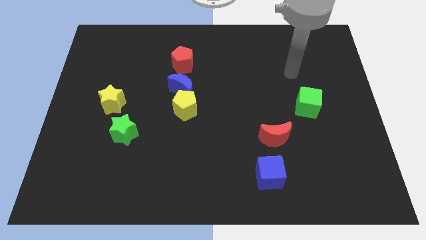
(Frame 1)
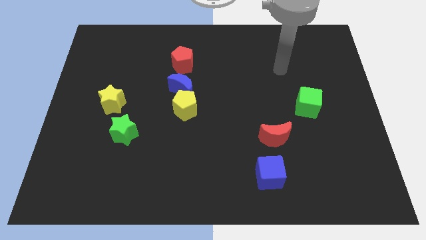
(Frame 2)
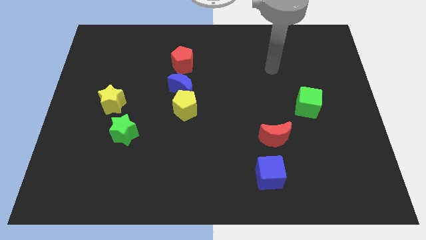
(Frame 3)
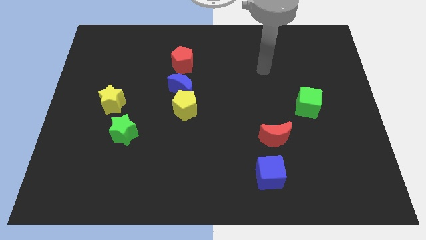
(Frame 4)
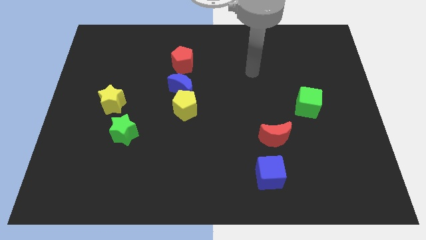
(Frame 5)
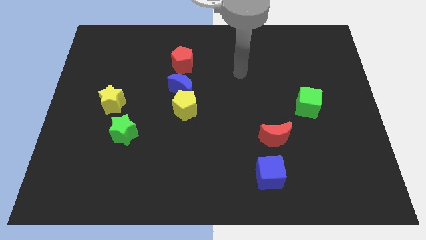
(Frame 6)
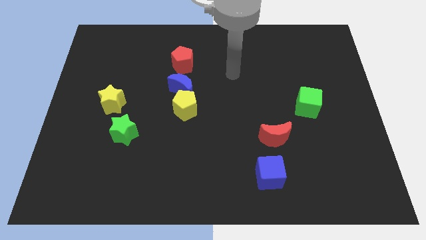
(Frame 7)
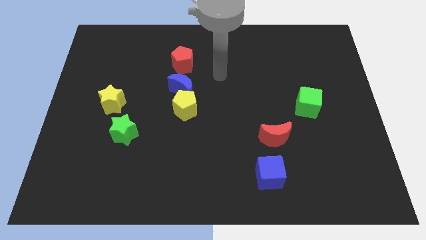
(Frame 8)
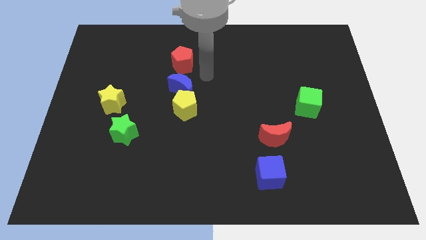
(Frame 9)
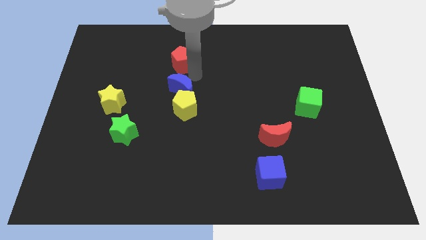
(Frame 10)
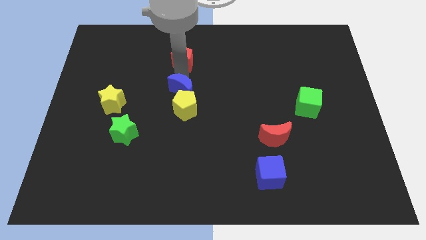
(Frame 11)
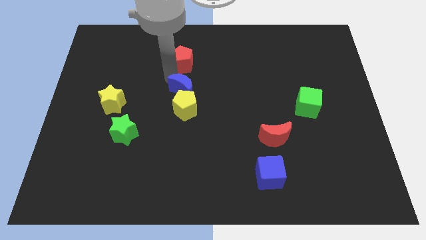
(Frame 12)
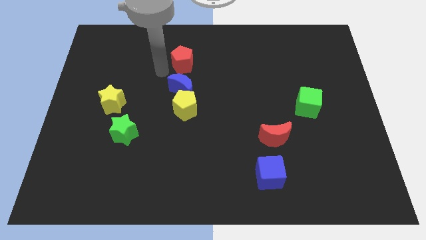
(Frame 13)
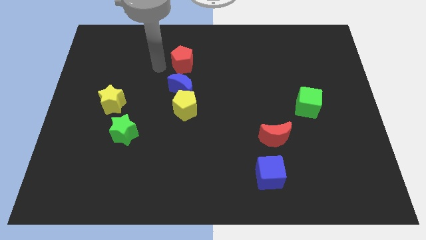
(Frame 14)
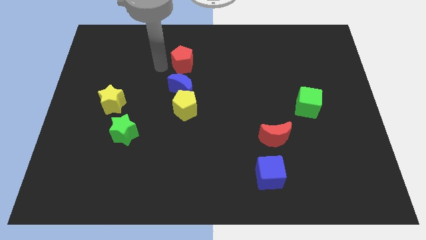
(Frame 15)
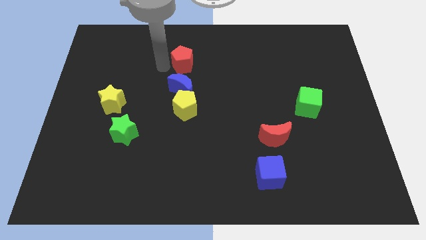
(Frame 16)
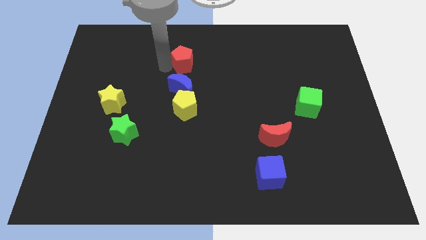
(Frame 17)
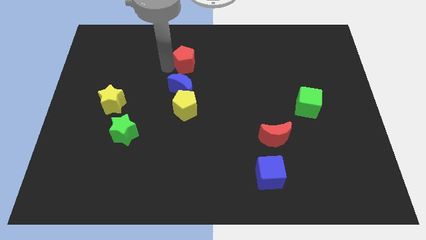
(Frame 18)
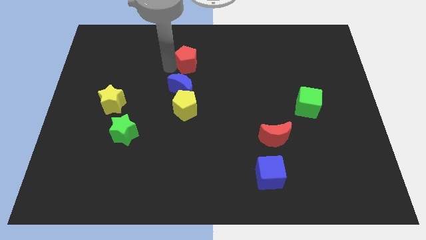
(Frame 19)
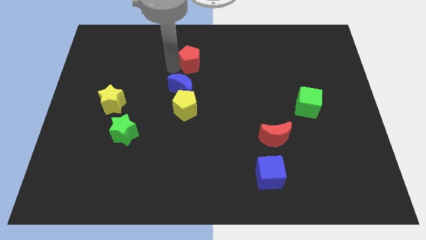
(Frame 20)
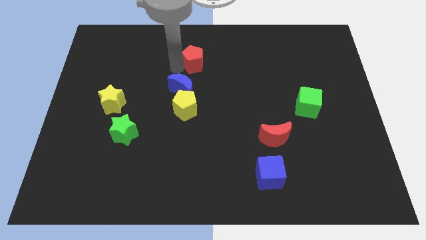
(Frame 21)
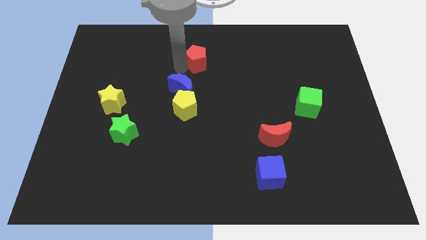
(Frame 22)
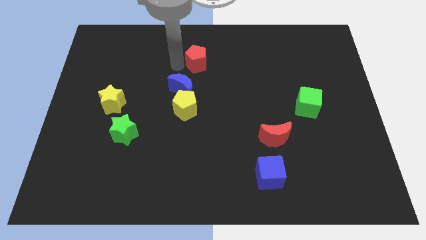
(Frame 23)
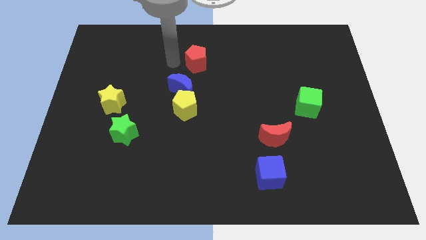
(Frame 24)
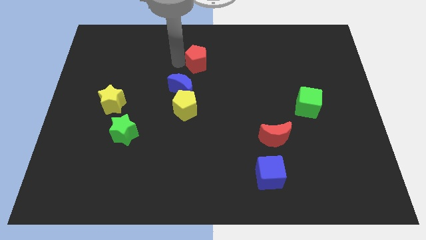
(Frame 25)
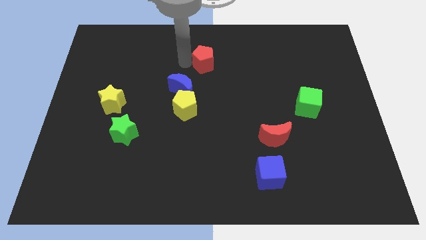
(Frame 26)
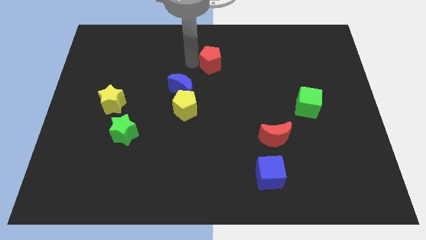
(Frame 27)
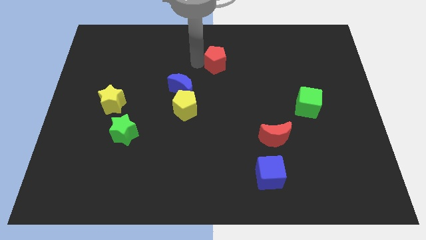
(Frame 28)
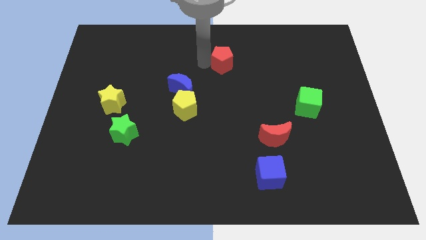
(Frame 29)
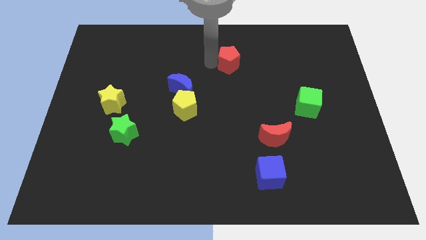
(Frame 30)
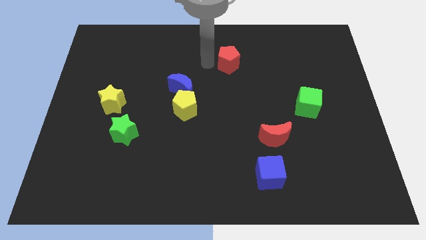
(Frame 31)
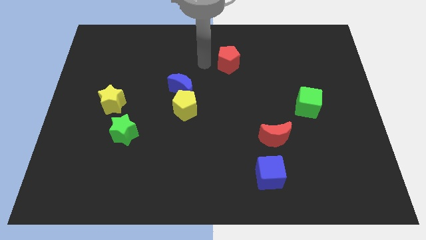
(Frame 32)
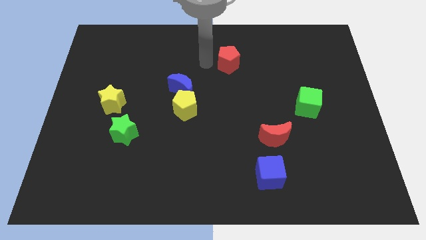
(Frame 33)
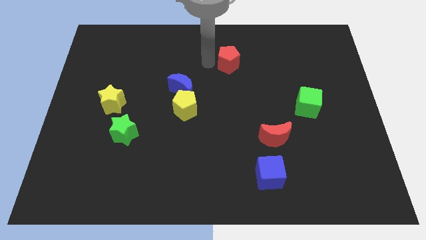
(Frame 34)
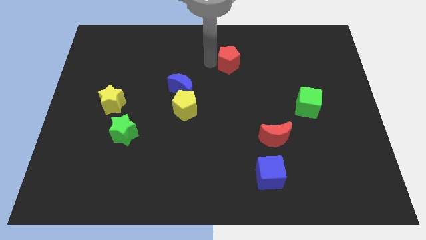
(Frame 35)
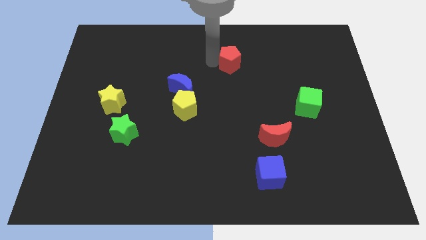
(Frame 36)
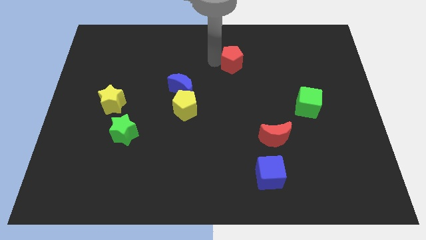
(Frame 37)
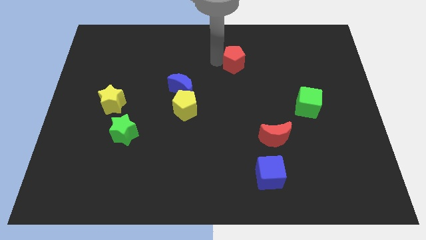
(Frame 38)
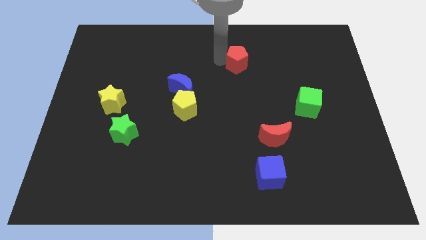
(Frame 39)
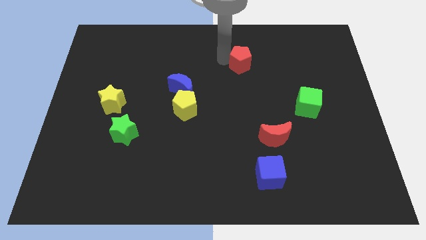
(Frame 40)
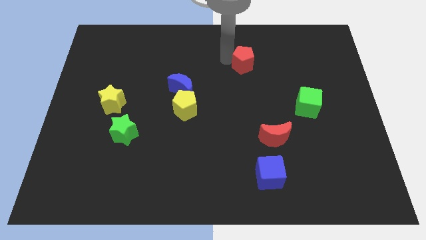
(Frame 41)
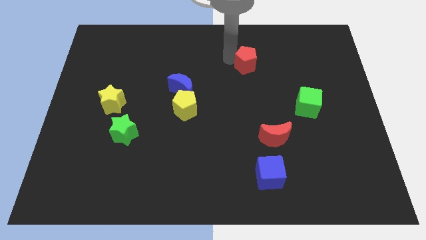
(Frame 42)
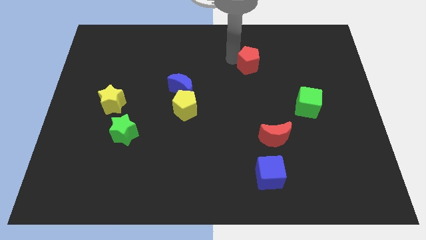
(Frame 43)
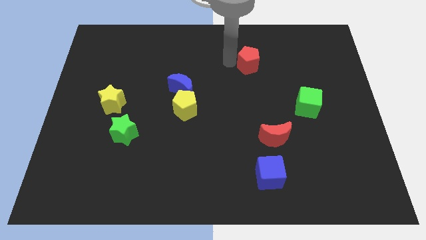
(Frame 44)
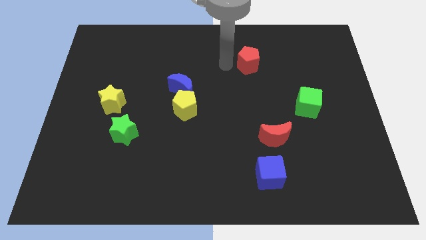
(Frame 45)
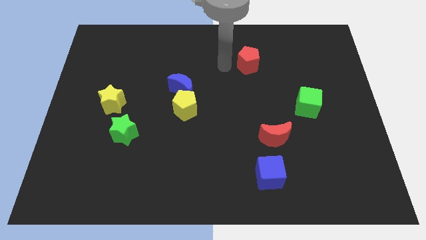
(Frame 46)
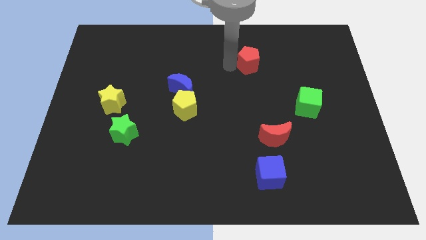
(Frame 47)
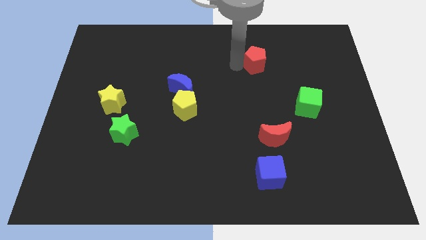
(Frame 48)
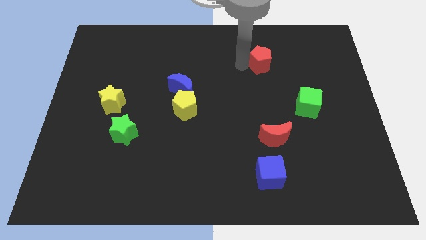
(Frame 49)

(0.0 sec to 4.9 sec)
push the red pentagon to the right

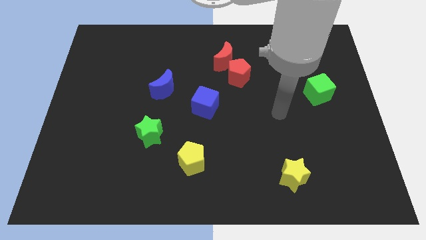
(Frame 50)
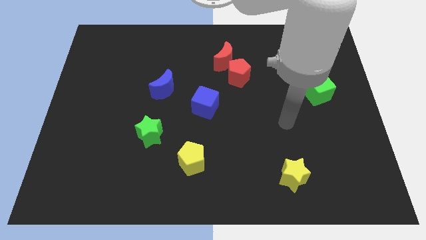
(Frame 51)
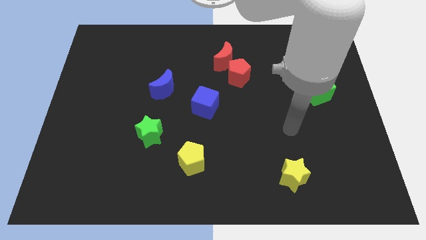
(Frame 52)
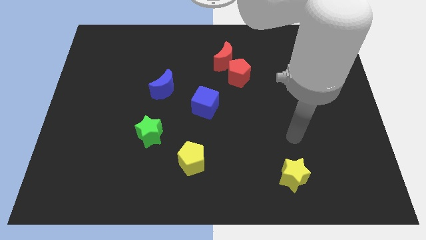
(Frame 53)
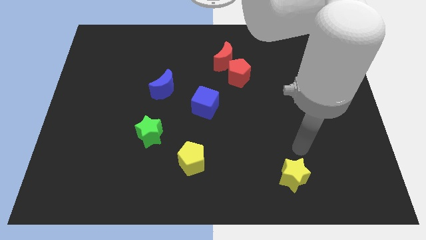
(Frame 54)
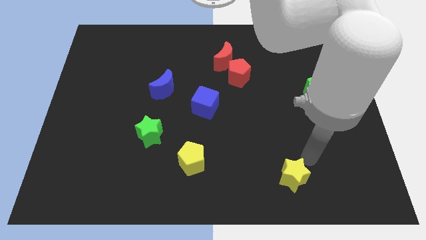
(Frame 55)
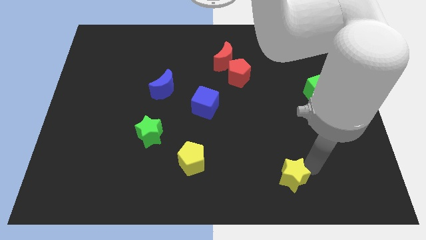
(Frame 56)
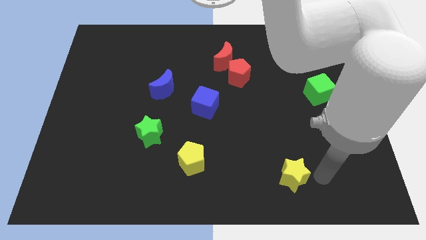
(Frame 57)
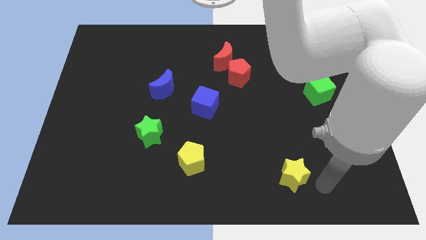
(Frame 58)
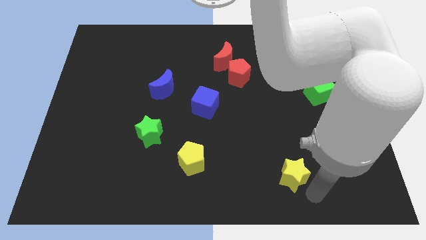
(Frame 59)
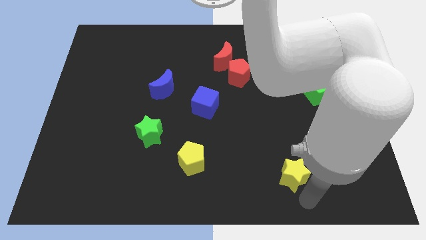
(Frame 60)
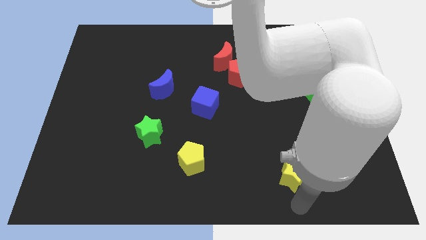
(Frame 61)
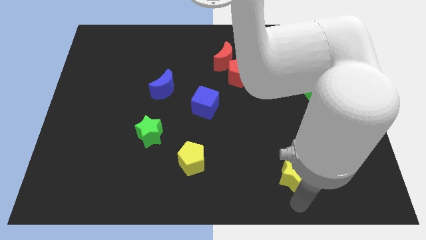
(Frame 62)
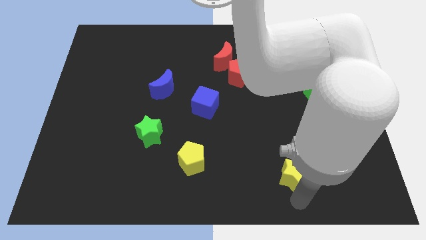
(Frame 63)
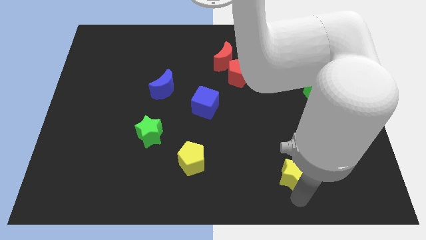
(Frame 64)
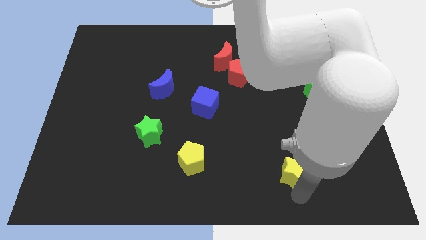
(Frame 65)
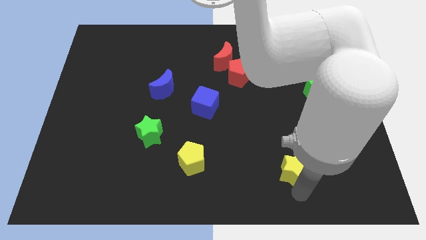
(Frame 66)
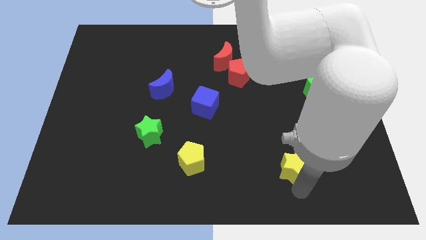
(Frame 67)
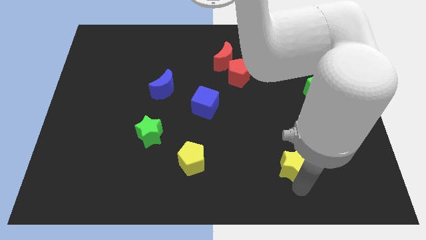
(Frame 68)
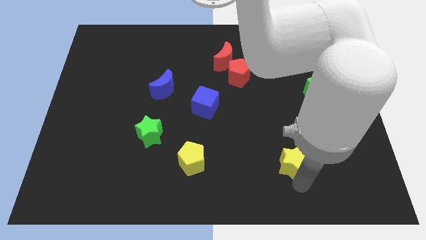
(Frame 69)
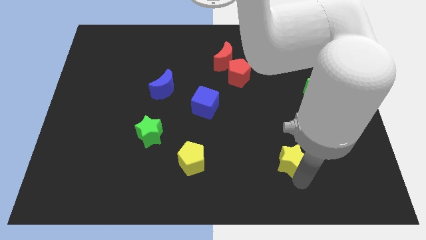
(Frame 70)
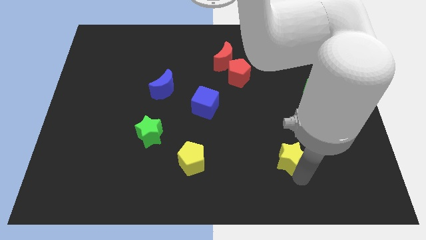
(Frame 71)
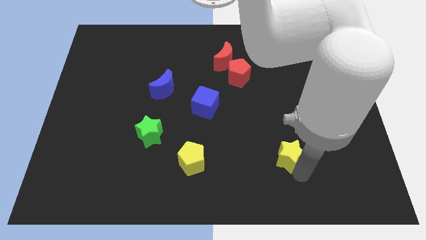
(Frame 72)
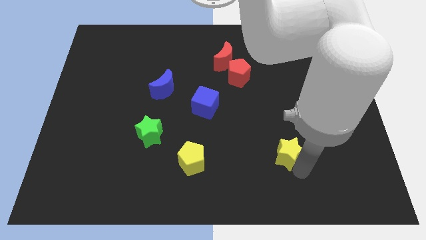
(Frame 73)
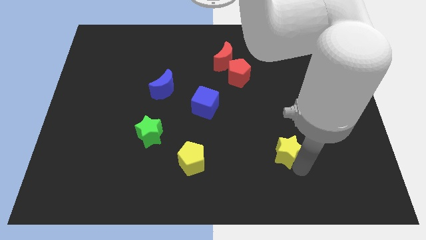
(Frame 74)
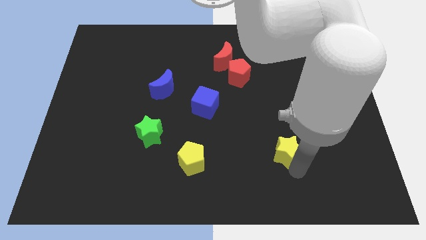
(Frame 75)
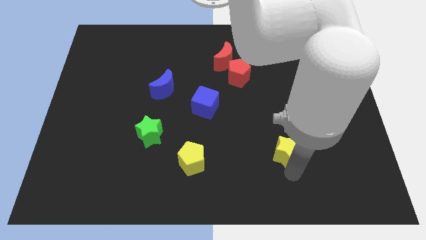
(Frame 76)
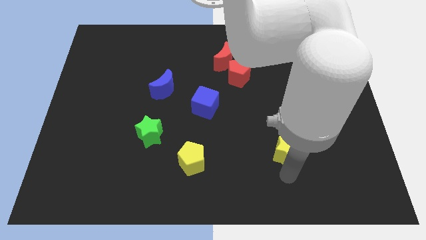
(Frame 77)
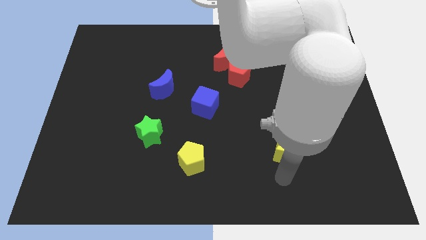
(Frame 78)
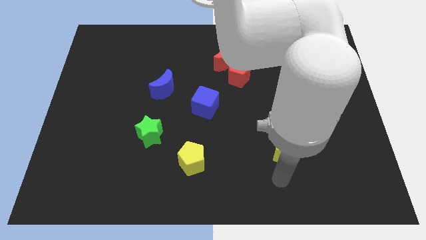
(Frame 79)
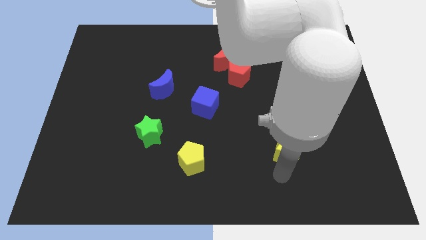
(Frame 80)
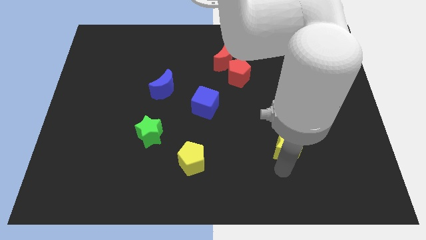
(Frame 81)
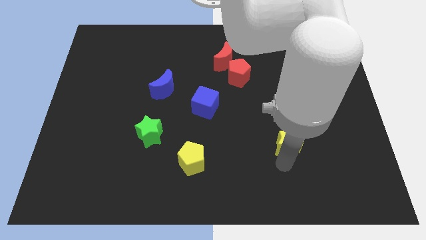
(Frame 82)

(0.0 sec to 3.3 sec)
slide the yellow star upwards slightly
